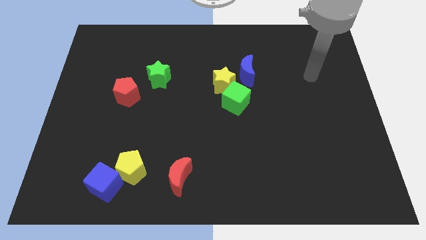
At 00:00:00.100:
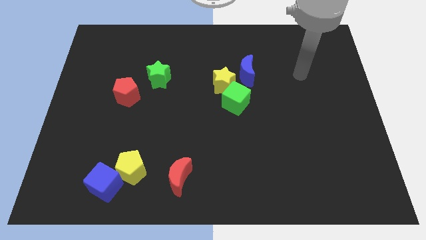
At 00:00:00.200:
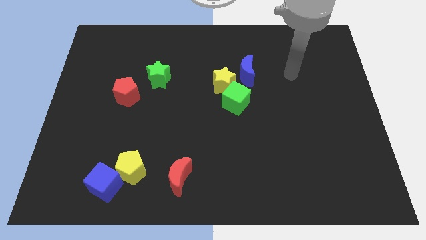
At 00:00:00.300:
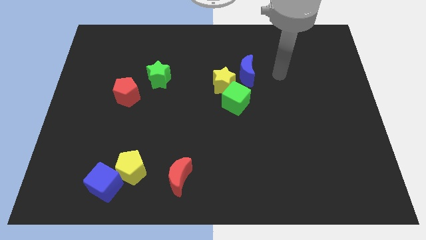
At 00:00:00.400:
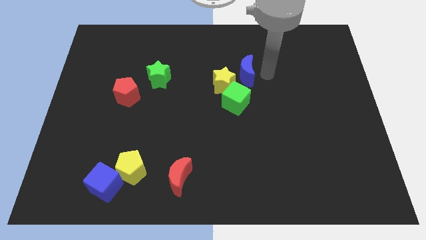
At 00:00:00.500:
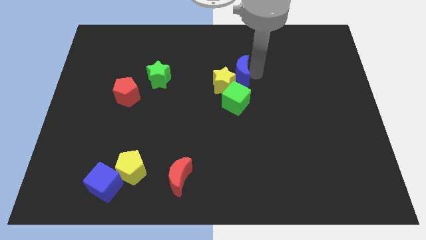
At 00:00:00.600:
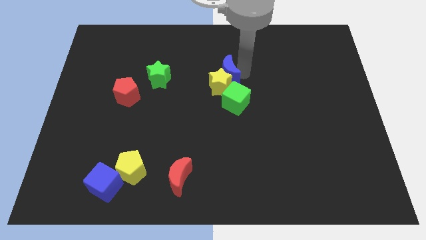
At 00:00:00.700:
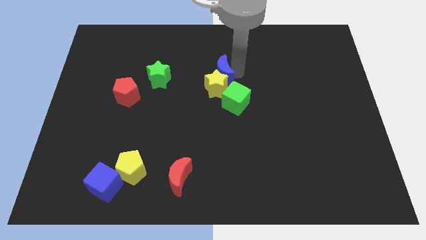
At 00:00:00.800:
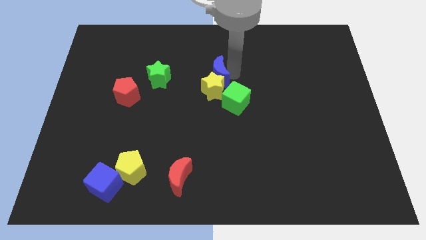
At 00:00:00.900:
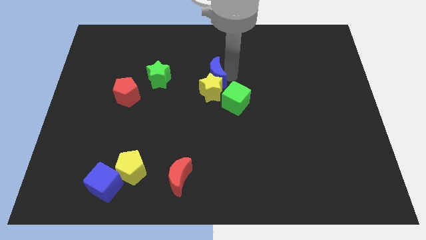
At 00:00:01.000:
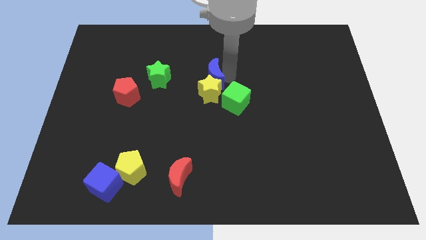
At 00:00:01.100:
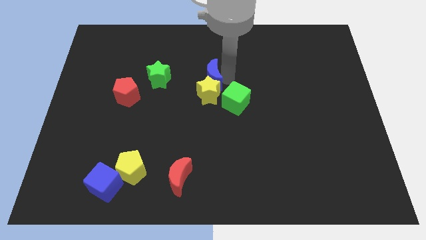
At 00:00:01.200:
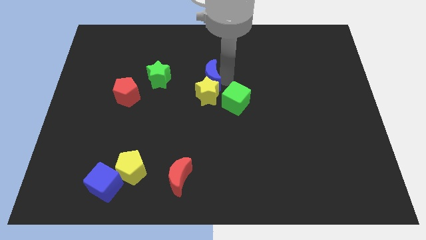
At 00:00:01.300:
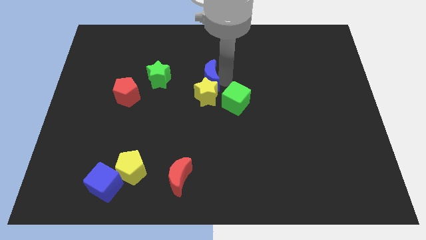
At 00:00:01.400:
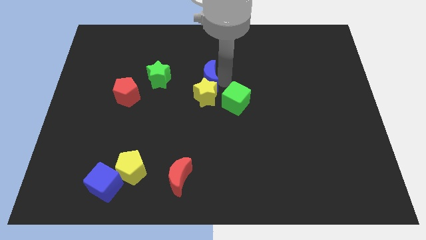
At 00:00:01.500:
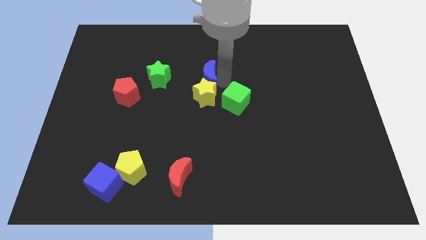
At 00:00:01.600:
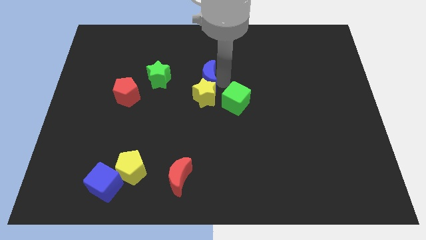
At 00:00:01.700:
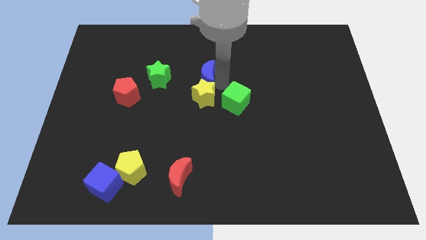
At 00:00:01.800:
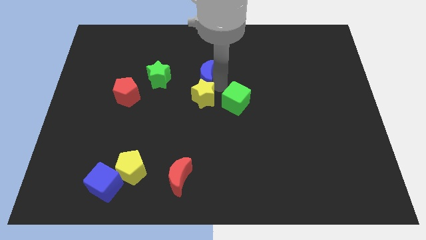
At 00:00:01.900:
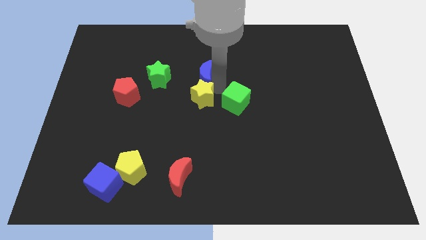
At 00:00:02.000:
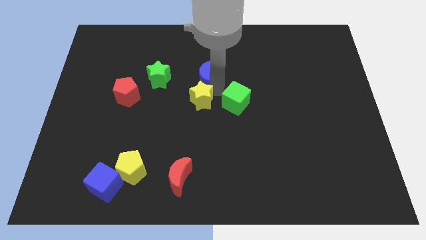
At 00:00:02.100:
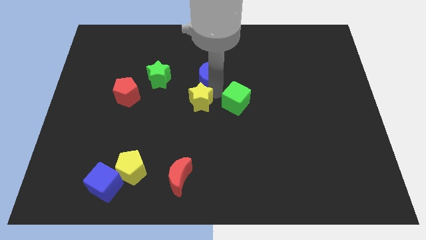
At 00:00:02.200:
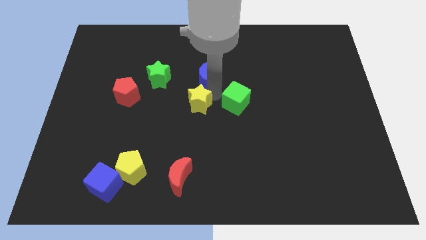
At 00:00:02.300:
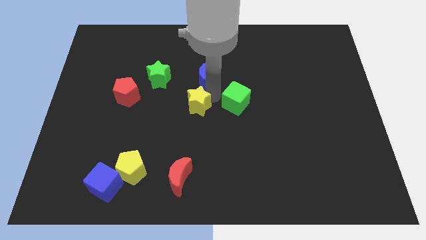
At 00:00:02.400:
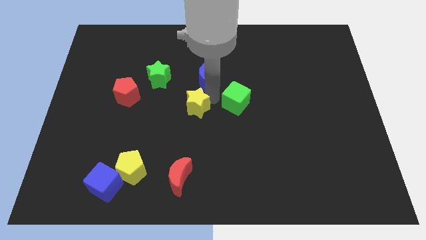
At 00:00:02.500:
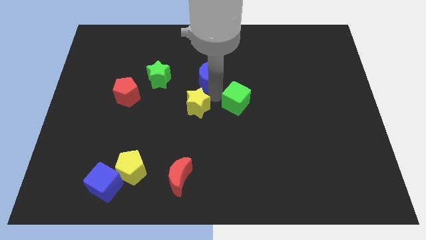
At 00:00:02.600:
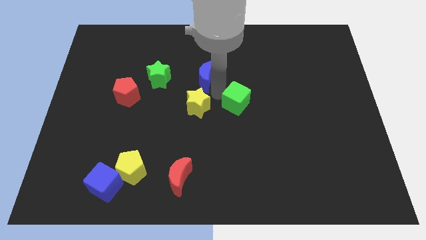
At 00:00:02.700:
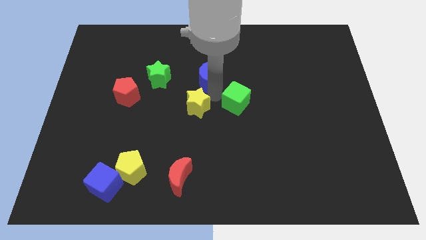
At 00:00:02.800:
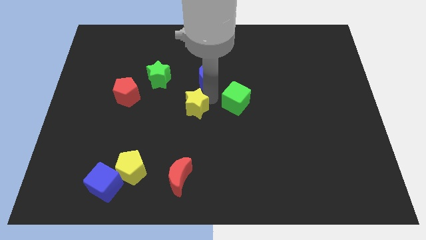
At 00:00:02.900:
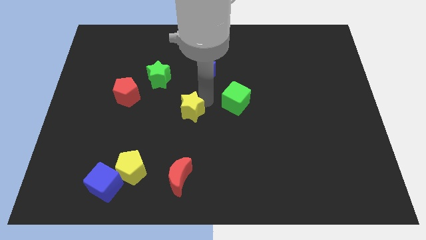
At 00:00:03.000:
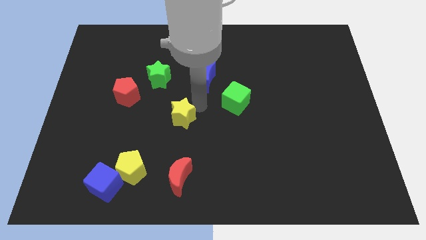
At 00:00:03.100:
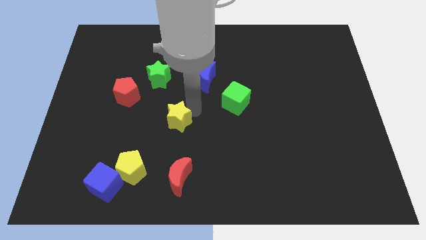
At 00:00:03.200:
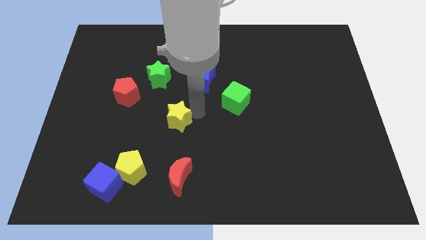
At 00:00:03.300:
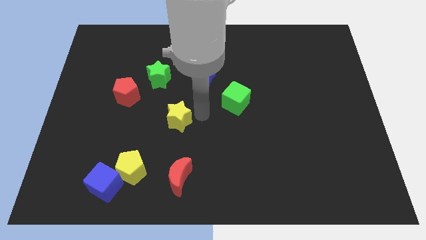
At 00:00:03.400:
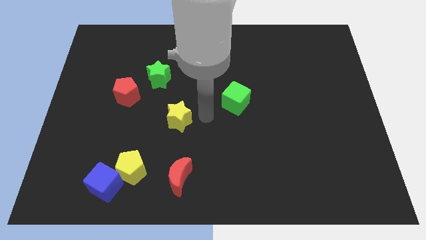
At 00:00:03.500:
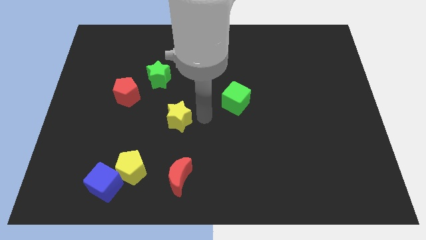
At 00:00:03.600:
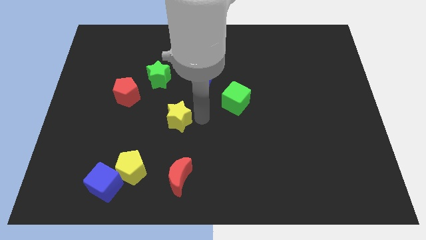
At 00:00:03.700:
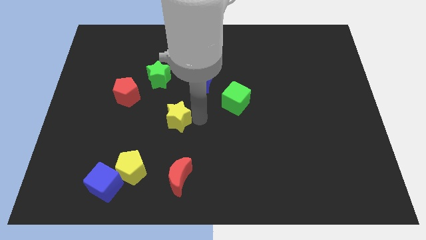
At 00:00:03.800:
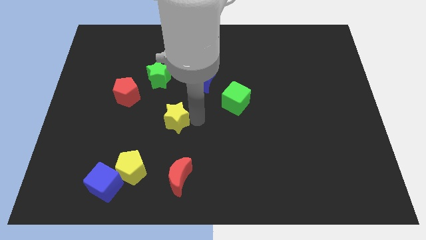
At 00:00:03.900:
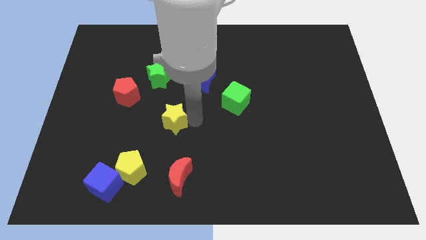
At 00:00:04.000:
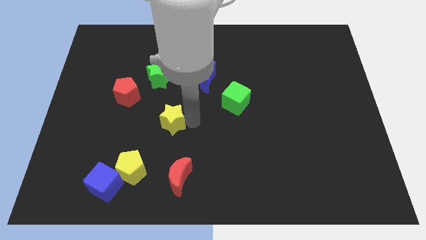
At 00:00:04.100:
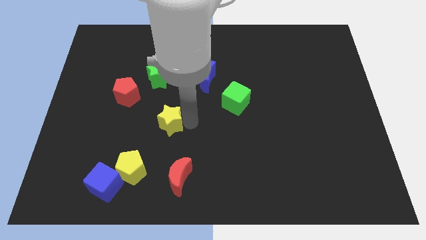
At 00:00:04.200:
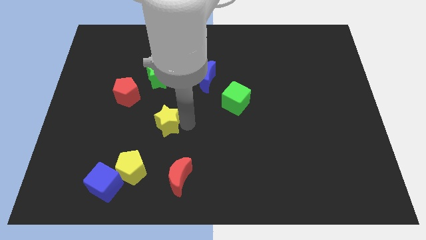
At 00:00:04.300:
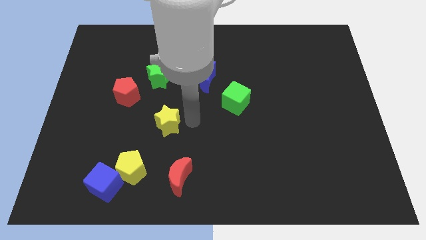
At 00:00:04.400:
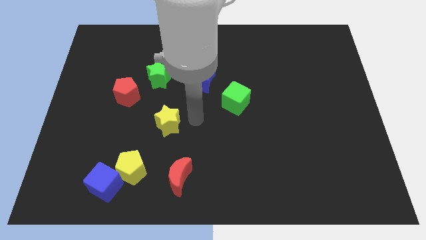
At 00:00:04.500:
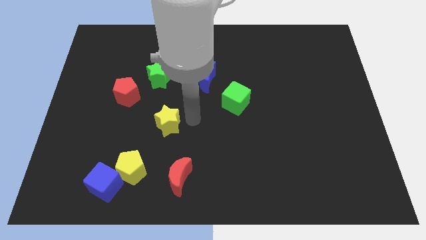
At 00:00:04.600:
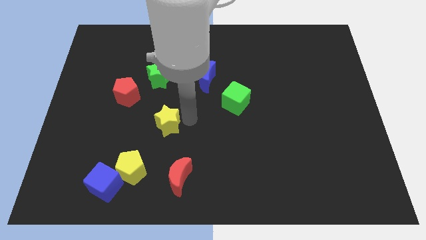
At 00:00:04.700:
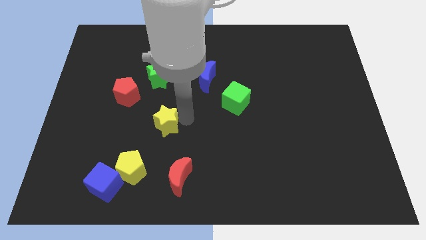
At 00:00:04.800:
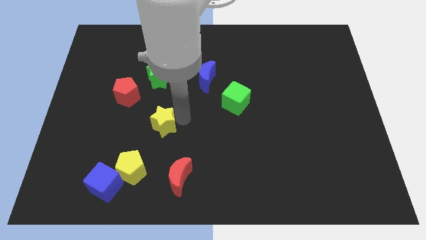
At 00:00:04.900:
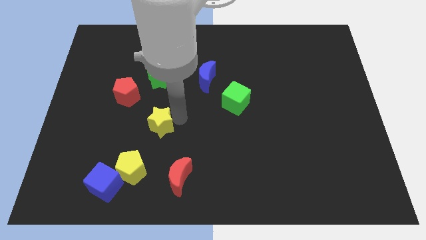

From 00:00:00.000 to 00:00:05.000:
put the yellow star above the yellow pentagon

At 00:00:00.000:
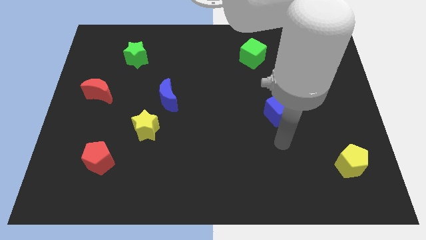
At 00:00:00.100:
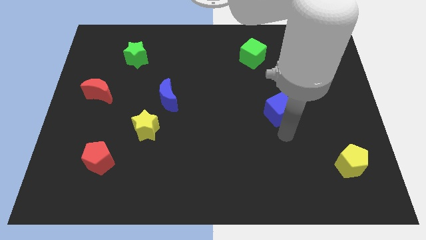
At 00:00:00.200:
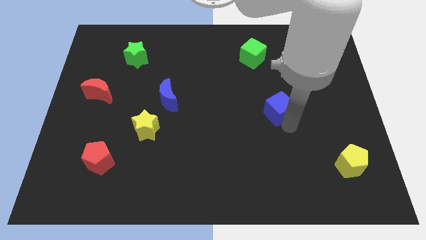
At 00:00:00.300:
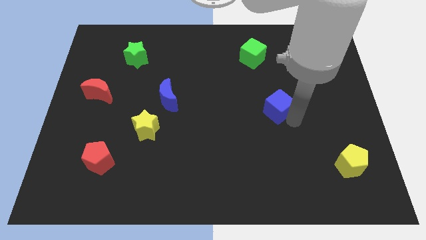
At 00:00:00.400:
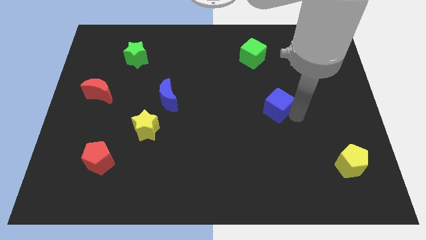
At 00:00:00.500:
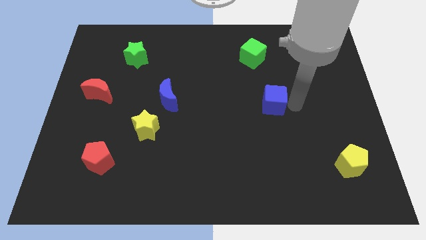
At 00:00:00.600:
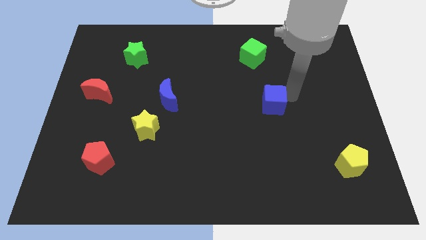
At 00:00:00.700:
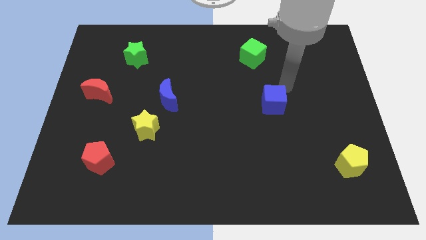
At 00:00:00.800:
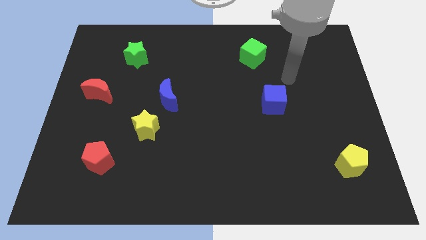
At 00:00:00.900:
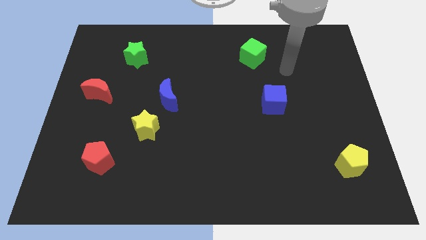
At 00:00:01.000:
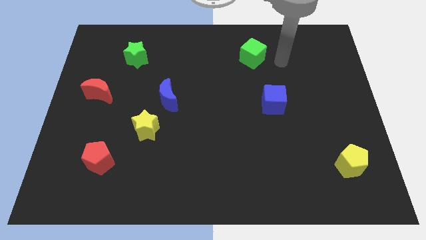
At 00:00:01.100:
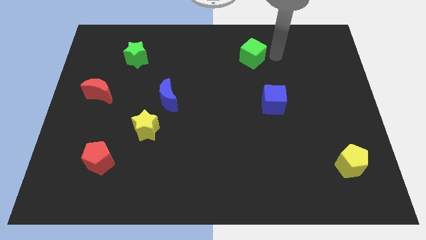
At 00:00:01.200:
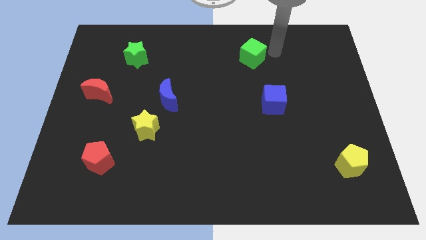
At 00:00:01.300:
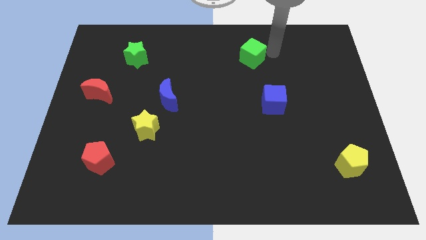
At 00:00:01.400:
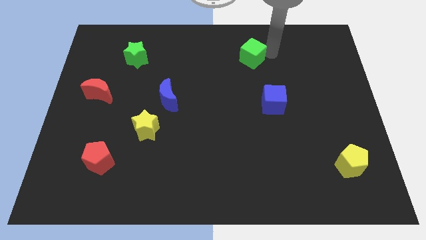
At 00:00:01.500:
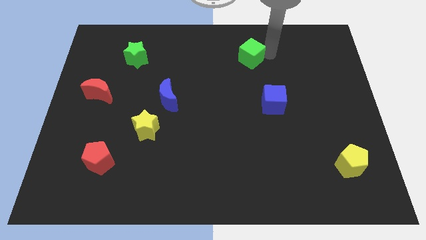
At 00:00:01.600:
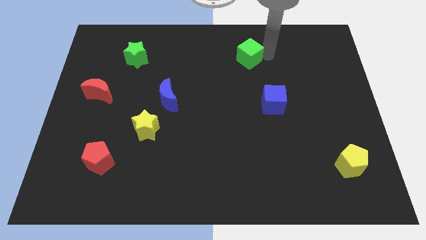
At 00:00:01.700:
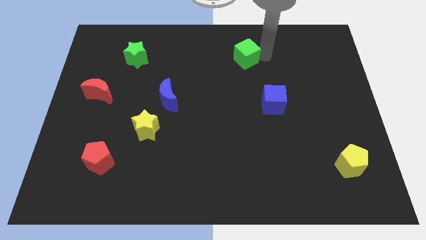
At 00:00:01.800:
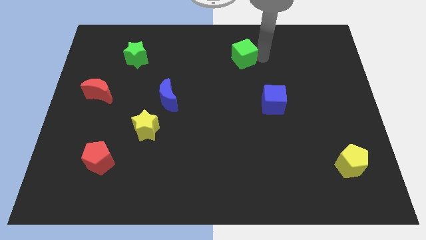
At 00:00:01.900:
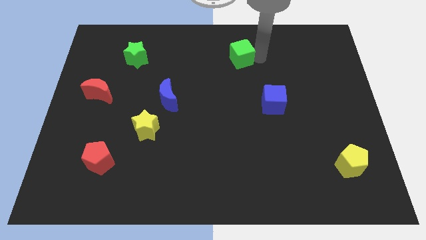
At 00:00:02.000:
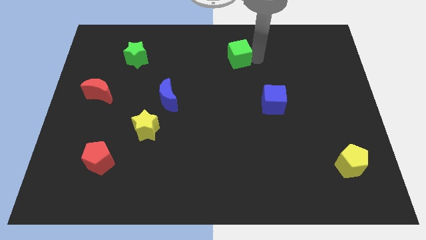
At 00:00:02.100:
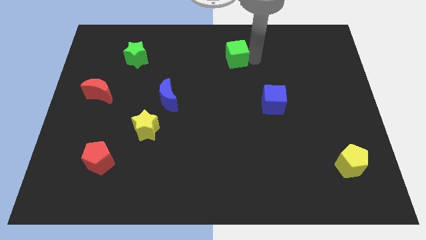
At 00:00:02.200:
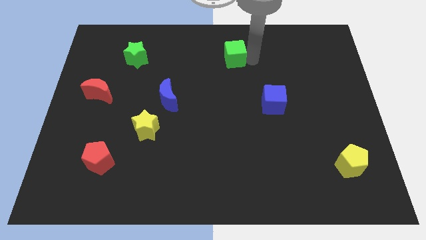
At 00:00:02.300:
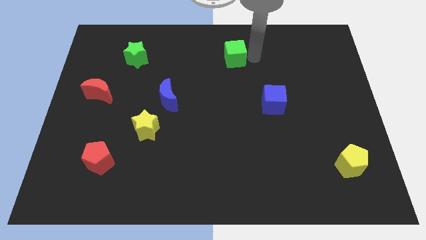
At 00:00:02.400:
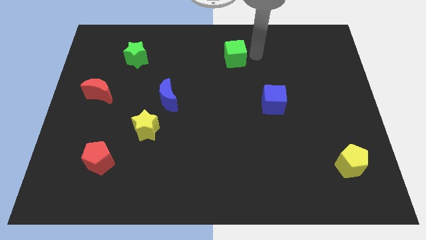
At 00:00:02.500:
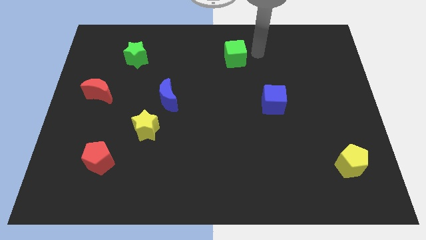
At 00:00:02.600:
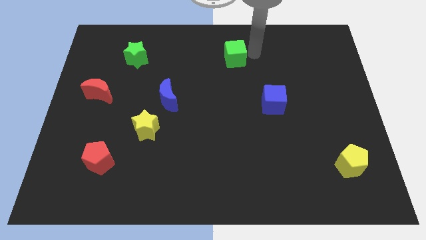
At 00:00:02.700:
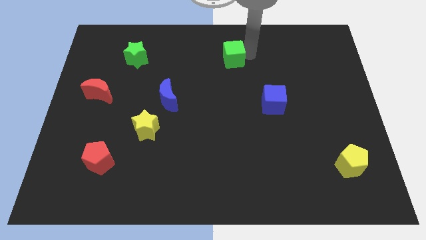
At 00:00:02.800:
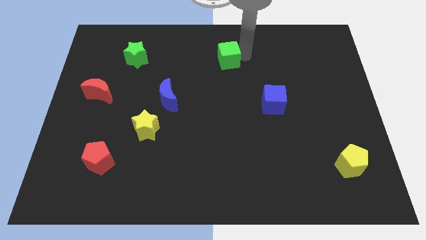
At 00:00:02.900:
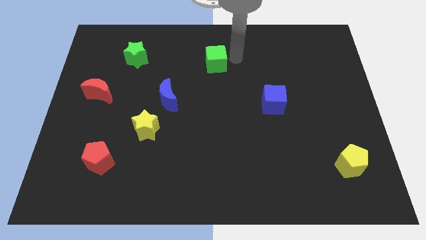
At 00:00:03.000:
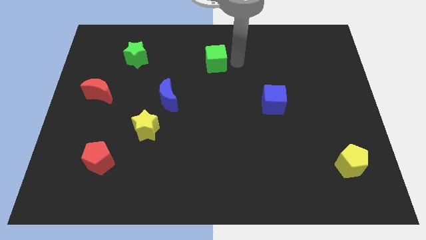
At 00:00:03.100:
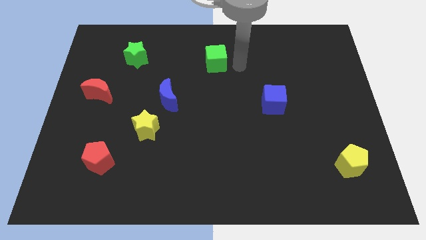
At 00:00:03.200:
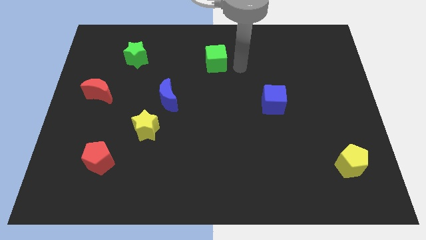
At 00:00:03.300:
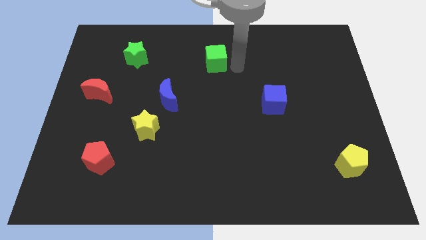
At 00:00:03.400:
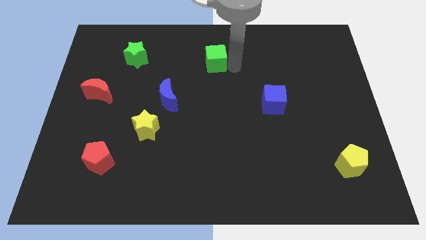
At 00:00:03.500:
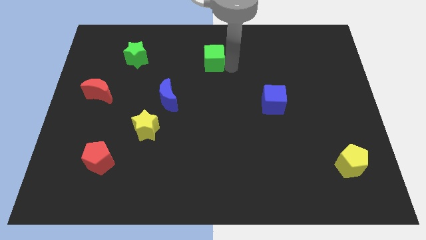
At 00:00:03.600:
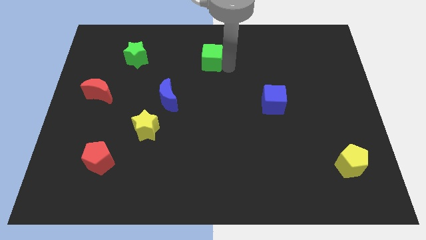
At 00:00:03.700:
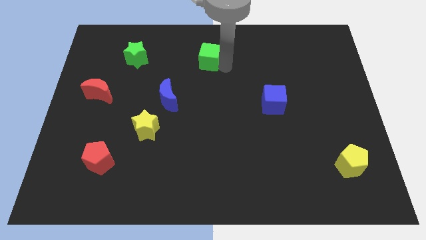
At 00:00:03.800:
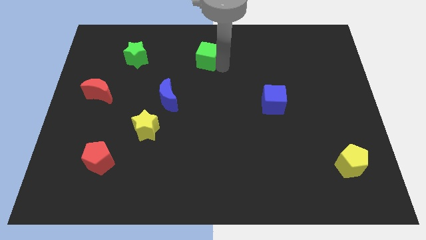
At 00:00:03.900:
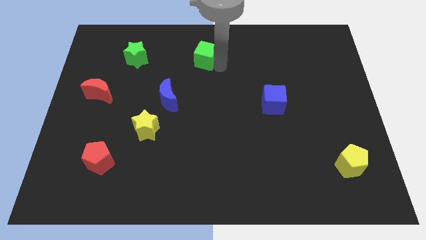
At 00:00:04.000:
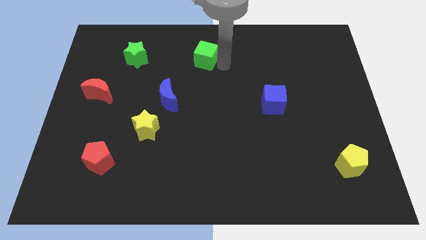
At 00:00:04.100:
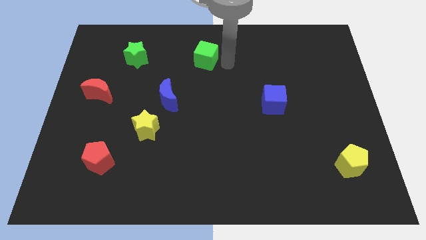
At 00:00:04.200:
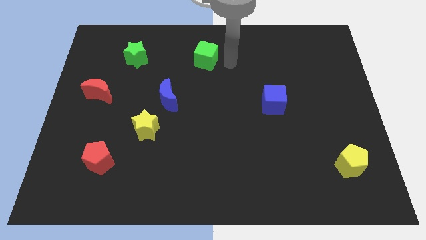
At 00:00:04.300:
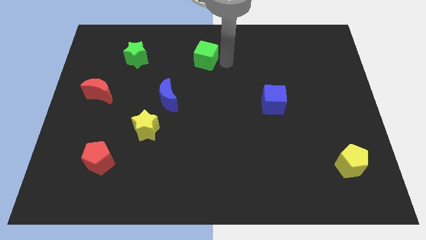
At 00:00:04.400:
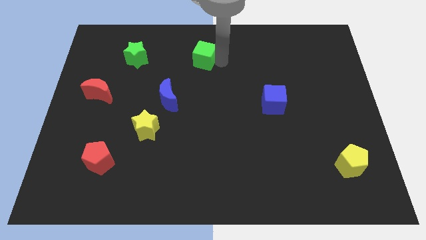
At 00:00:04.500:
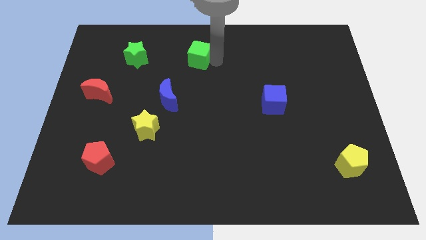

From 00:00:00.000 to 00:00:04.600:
slide the green cube right of the green star
